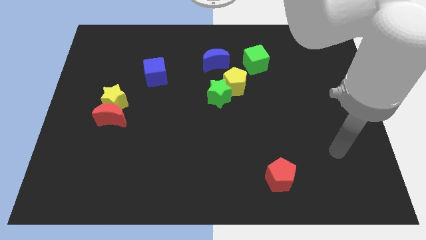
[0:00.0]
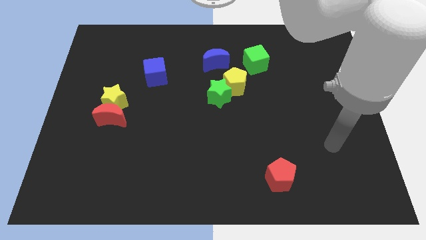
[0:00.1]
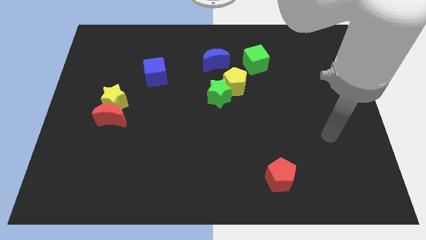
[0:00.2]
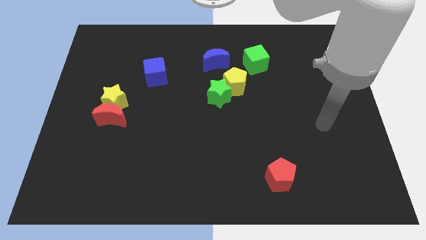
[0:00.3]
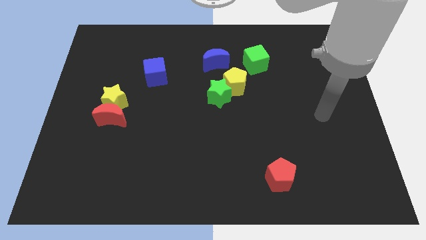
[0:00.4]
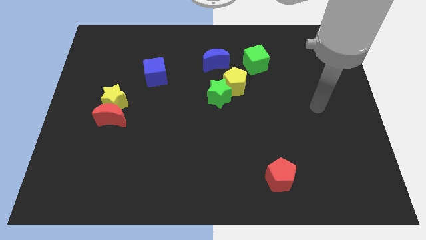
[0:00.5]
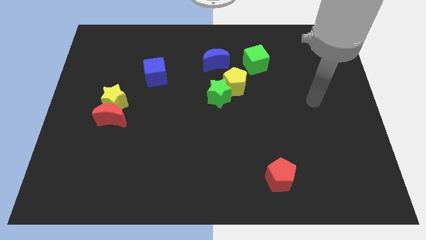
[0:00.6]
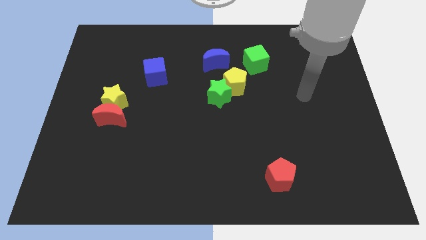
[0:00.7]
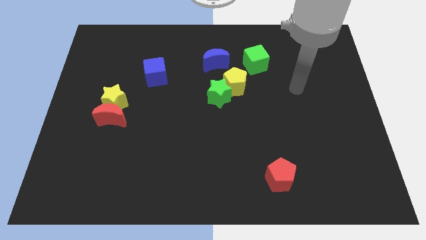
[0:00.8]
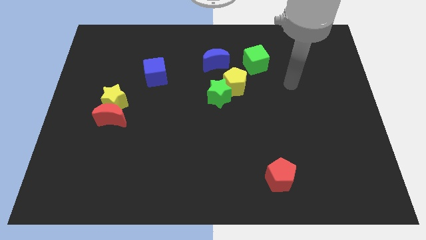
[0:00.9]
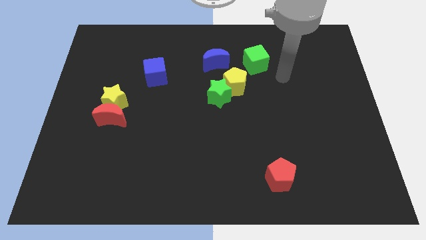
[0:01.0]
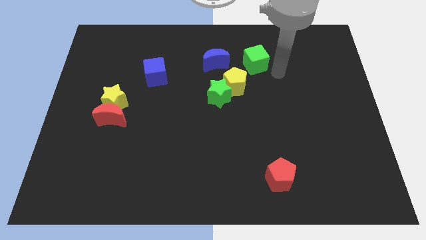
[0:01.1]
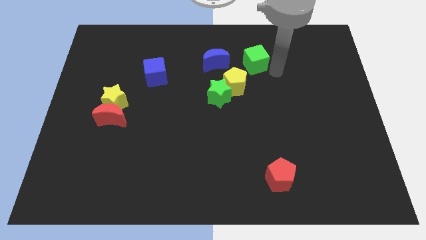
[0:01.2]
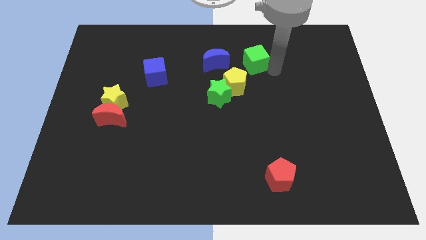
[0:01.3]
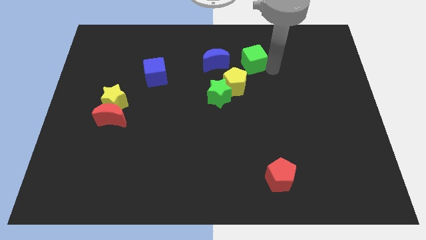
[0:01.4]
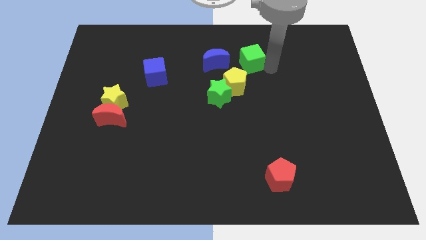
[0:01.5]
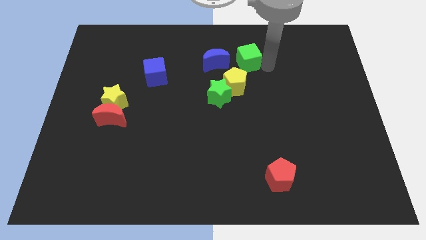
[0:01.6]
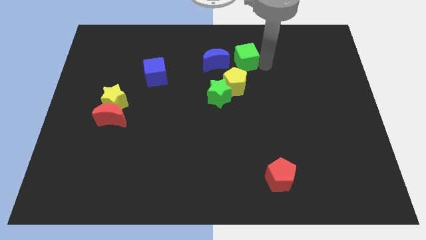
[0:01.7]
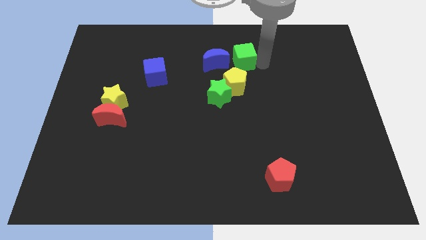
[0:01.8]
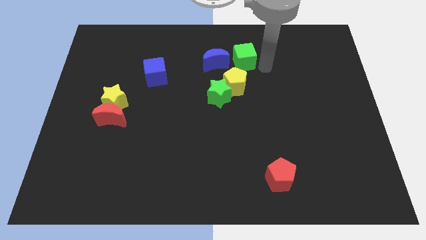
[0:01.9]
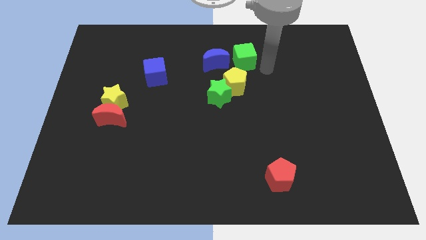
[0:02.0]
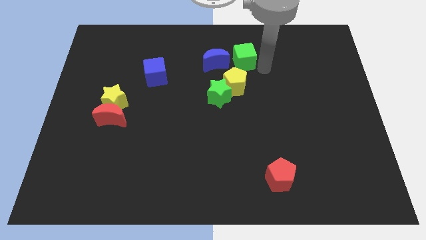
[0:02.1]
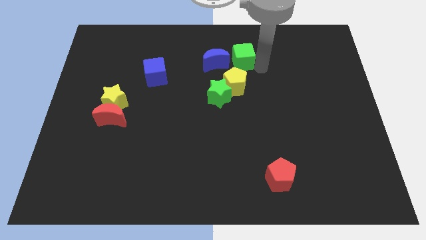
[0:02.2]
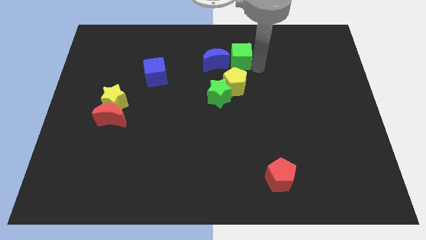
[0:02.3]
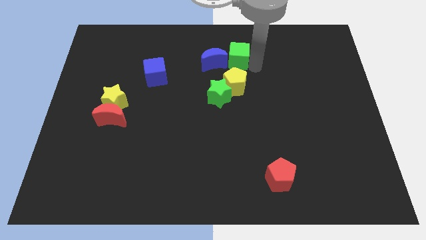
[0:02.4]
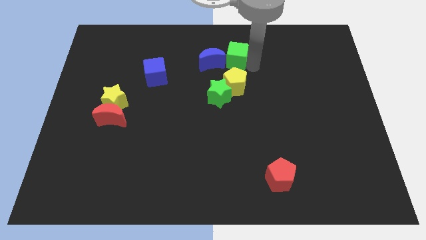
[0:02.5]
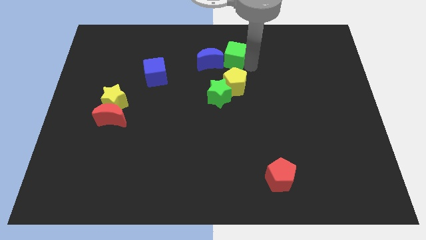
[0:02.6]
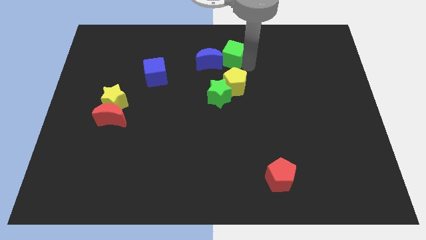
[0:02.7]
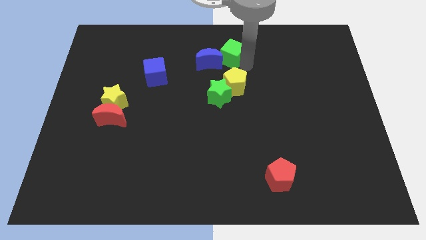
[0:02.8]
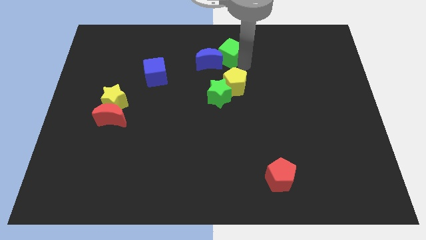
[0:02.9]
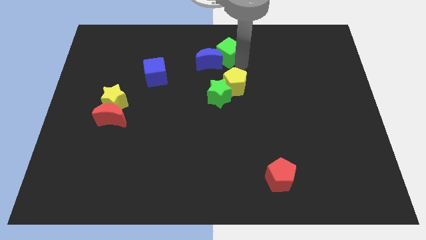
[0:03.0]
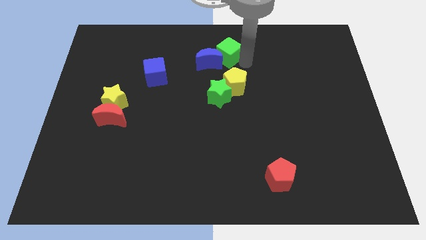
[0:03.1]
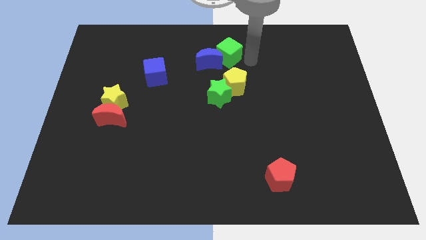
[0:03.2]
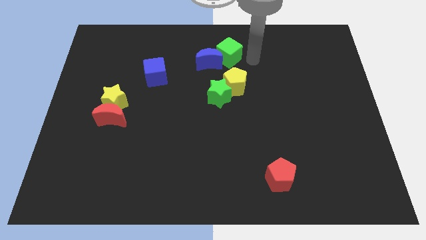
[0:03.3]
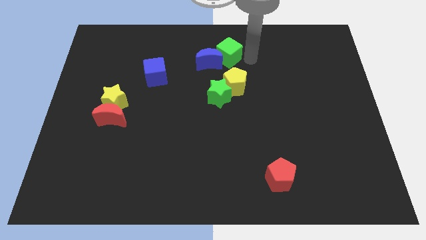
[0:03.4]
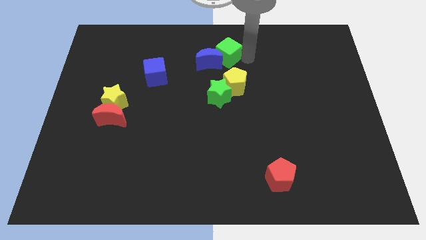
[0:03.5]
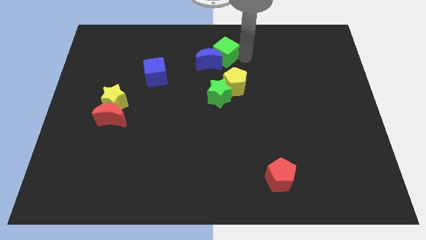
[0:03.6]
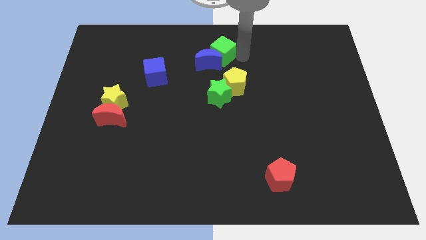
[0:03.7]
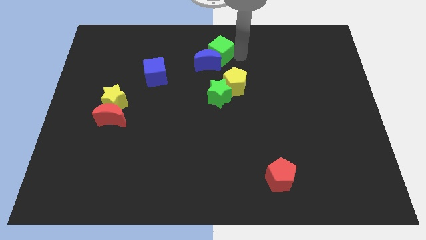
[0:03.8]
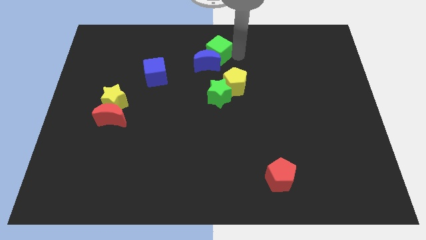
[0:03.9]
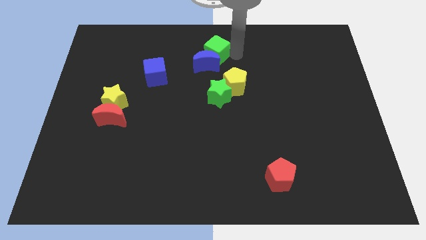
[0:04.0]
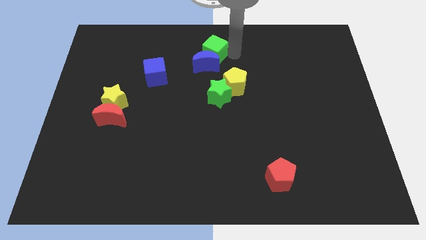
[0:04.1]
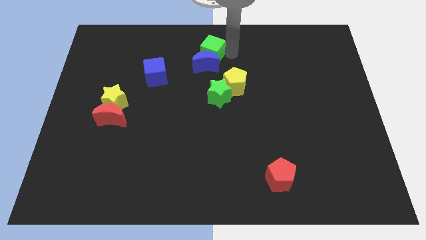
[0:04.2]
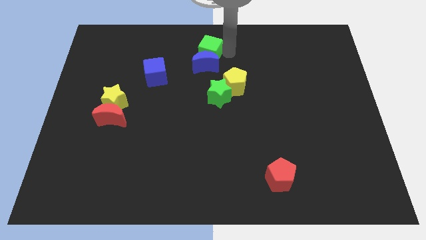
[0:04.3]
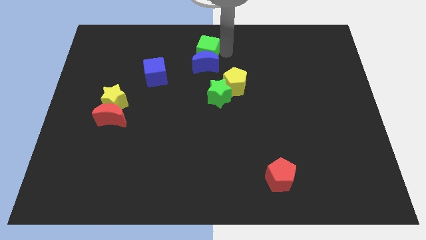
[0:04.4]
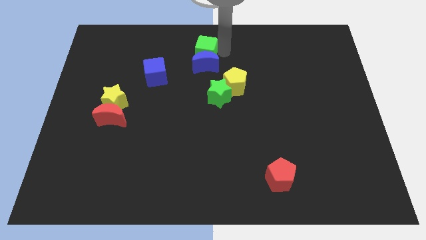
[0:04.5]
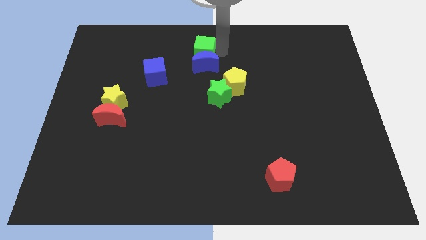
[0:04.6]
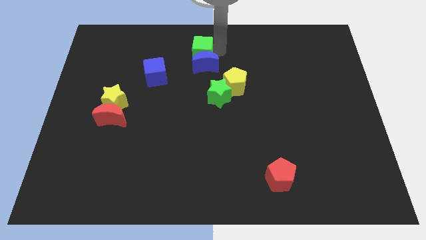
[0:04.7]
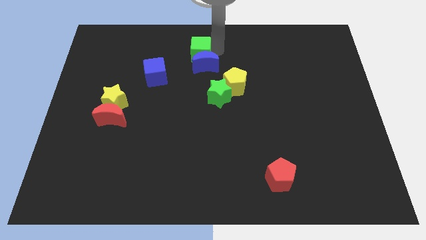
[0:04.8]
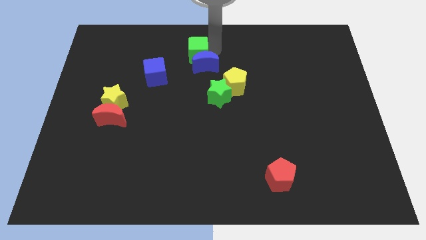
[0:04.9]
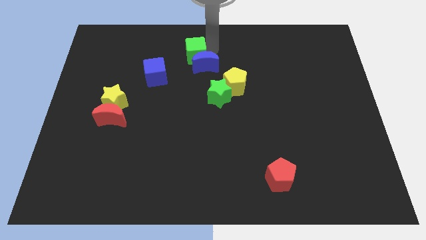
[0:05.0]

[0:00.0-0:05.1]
move the green cube to the top right side of the blue cube

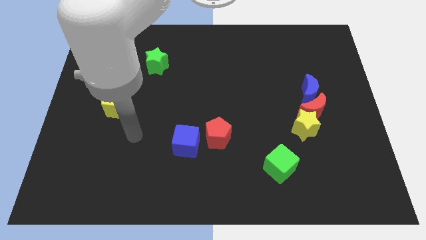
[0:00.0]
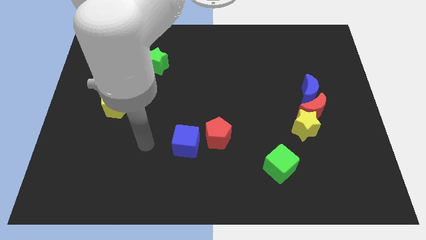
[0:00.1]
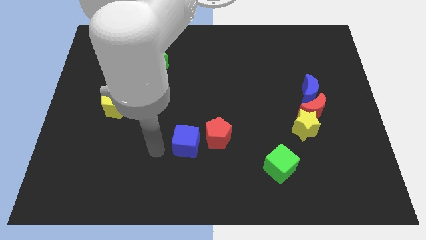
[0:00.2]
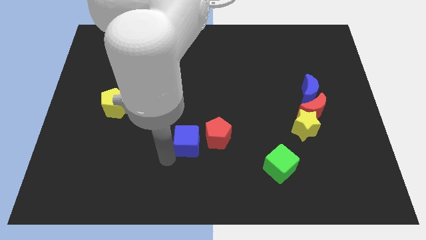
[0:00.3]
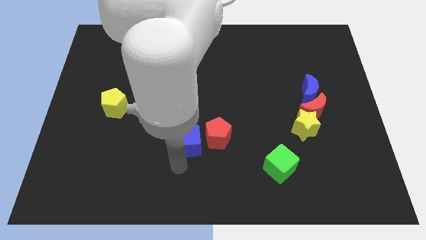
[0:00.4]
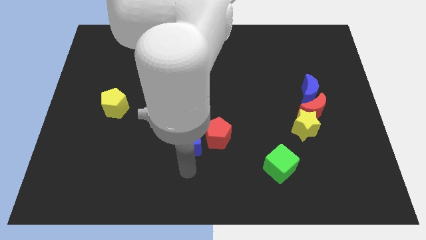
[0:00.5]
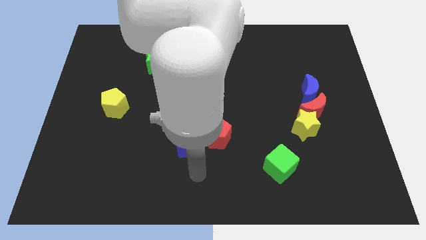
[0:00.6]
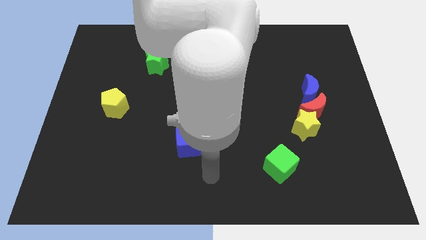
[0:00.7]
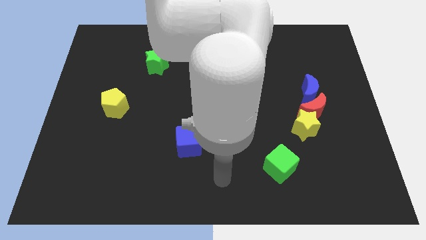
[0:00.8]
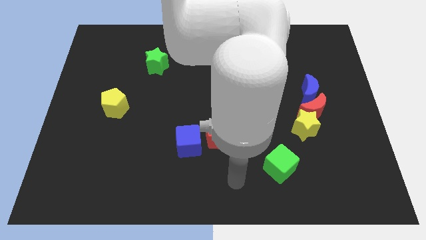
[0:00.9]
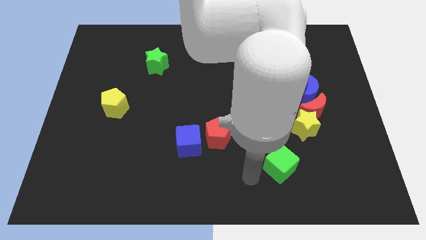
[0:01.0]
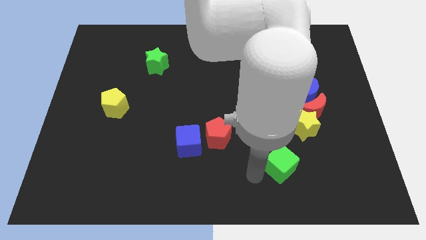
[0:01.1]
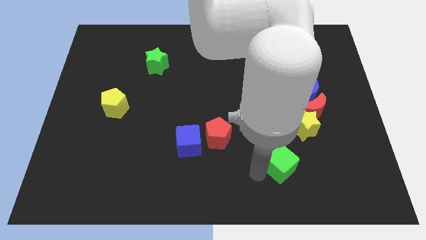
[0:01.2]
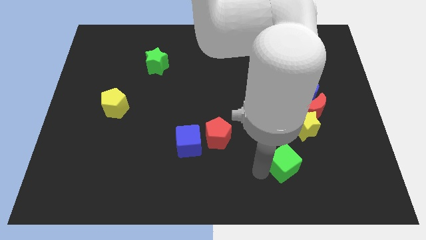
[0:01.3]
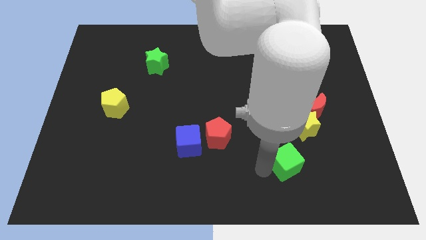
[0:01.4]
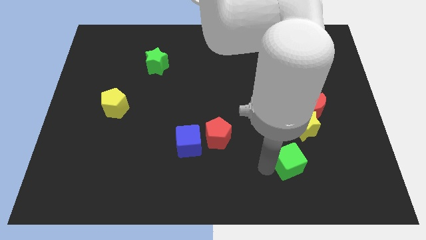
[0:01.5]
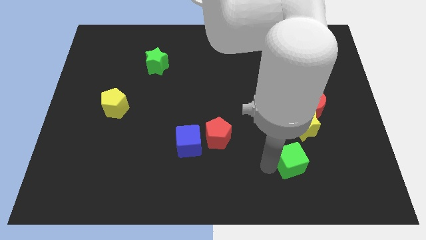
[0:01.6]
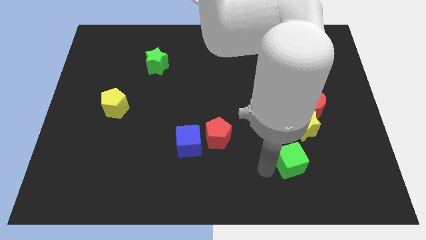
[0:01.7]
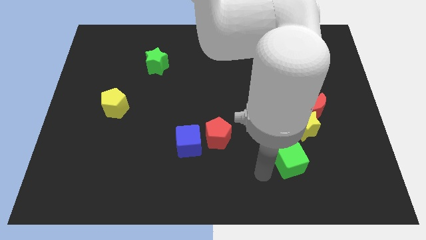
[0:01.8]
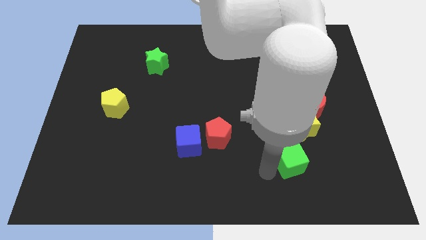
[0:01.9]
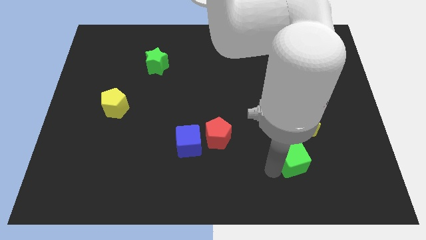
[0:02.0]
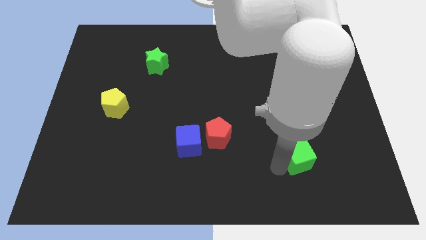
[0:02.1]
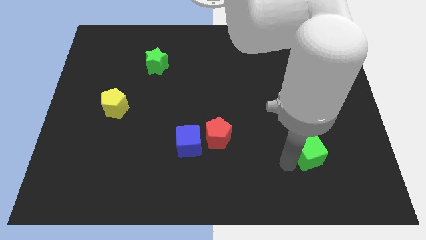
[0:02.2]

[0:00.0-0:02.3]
push the green cube to the bottom right of the yellow star

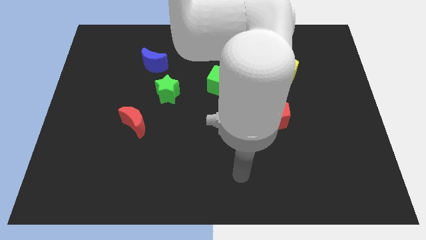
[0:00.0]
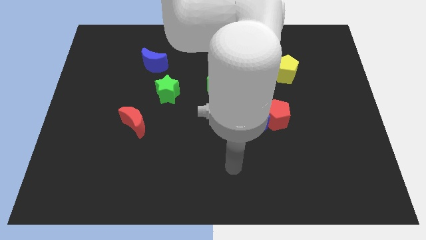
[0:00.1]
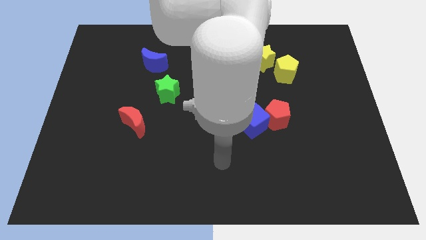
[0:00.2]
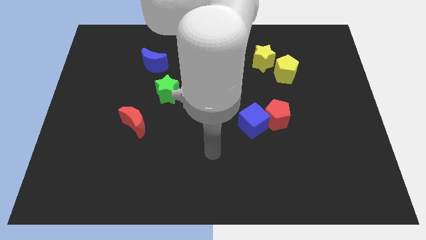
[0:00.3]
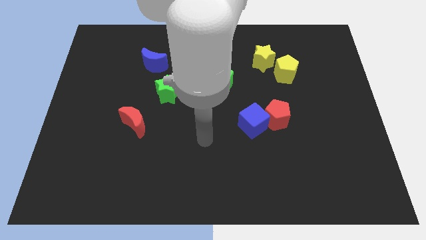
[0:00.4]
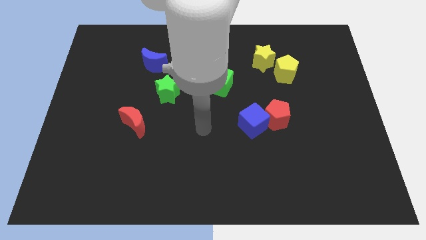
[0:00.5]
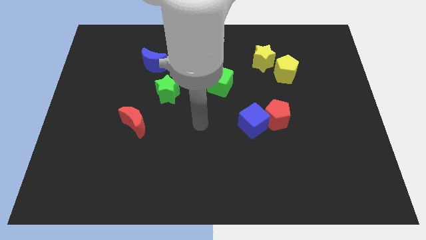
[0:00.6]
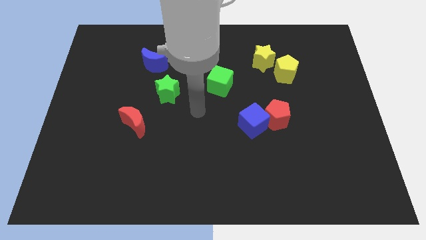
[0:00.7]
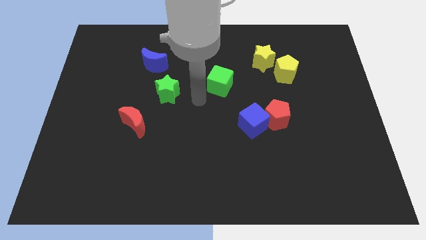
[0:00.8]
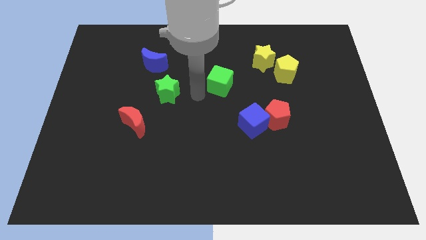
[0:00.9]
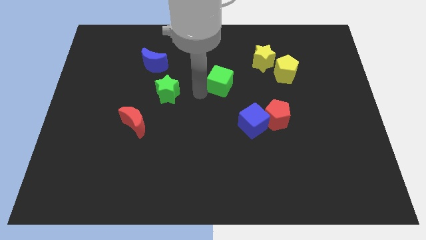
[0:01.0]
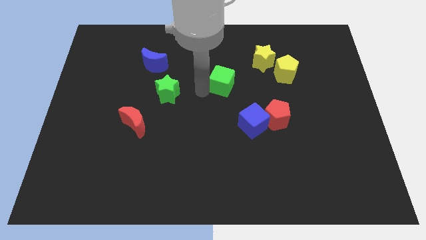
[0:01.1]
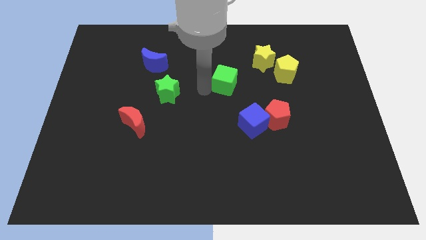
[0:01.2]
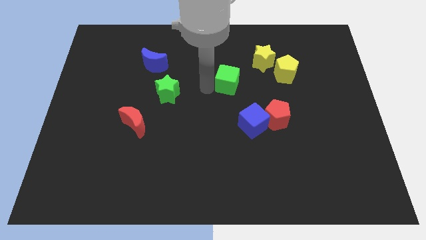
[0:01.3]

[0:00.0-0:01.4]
move the green cube to the left of the yellow pentagon

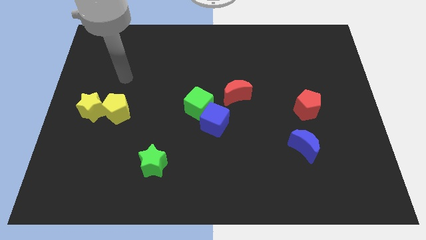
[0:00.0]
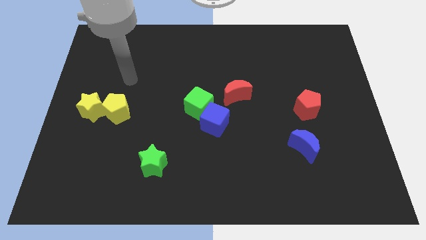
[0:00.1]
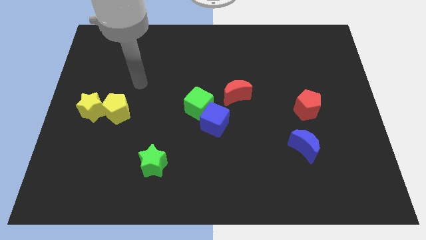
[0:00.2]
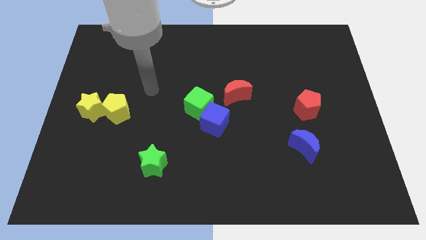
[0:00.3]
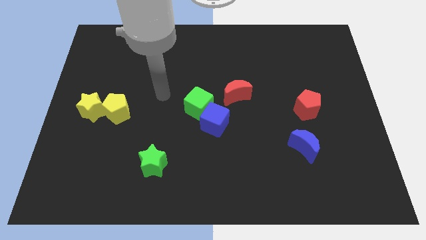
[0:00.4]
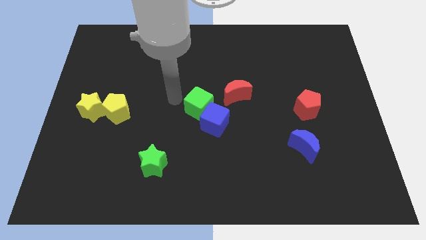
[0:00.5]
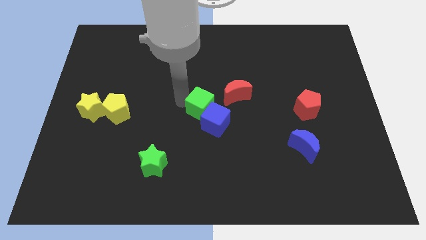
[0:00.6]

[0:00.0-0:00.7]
put the blue cube to the bottom of the red moon
